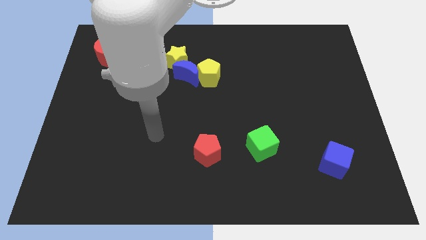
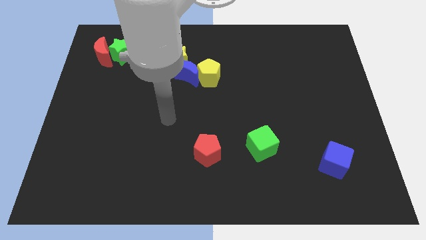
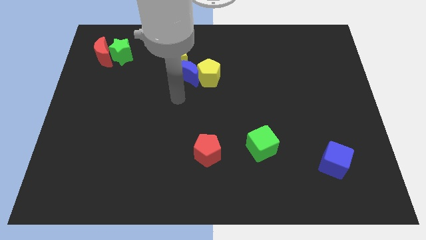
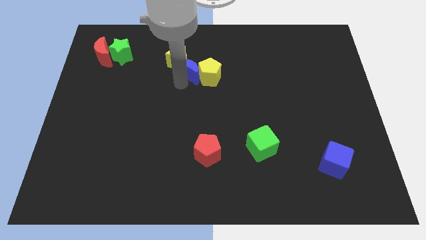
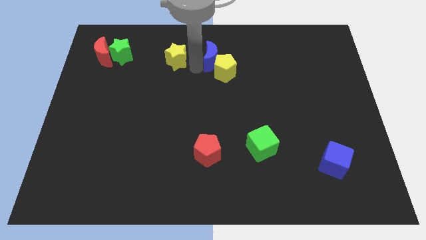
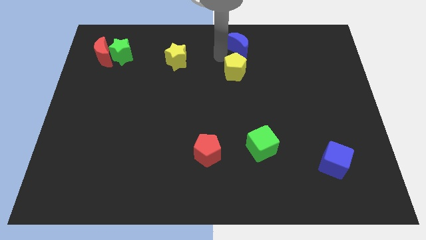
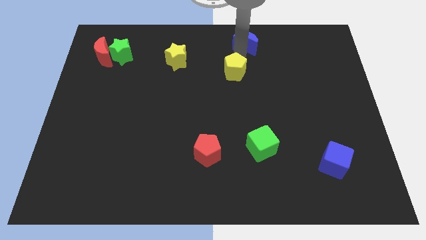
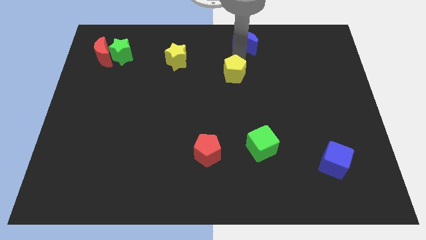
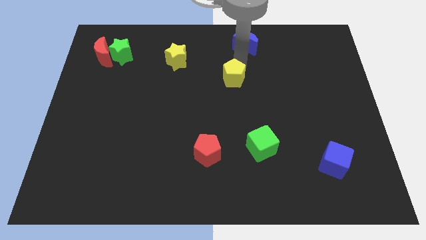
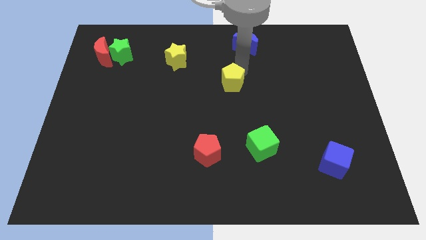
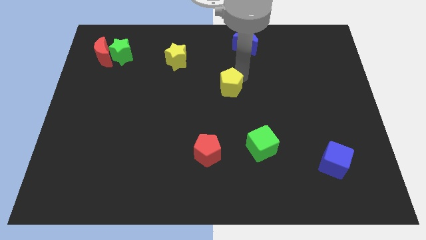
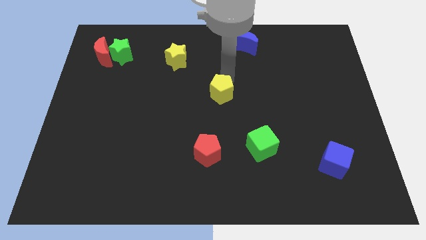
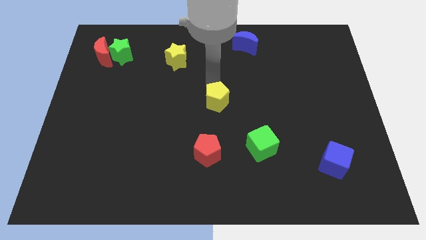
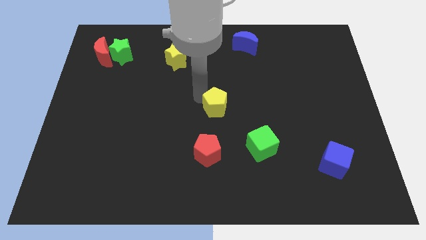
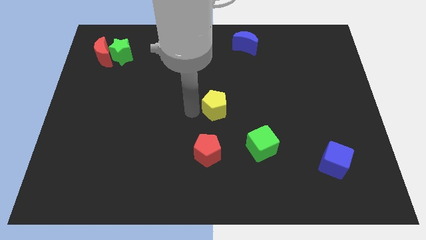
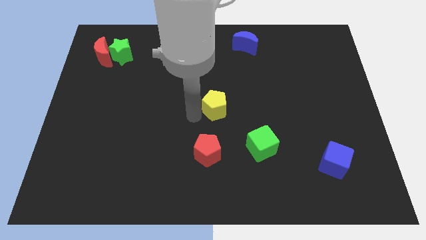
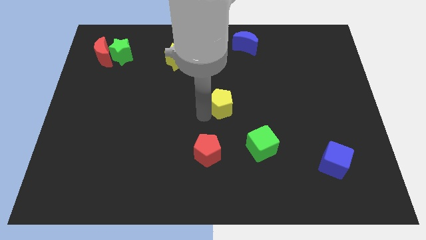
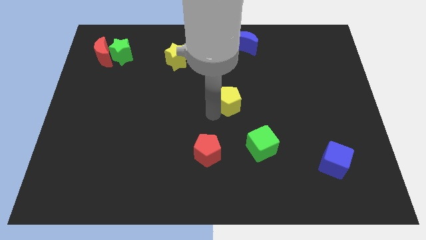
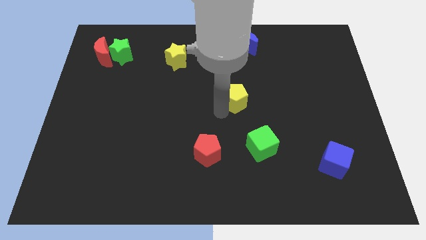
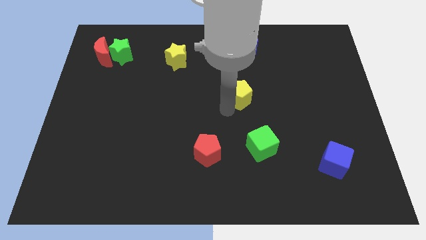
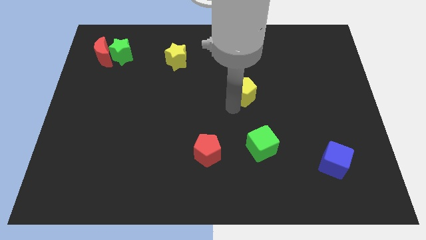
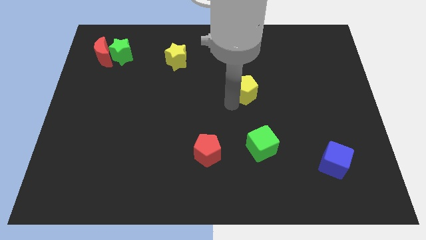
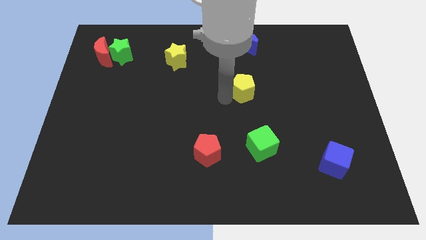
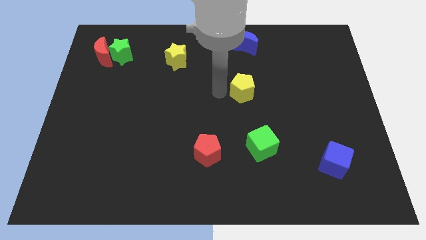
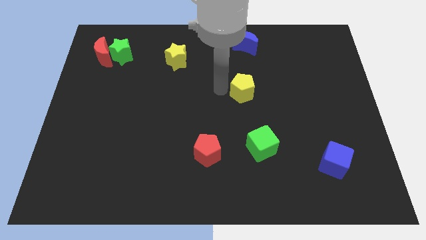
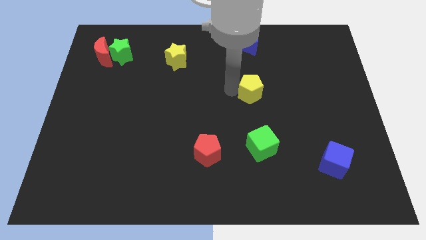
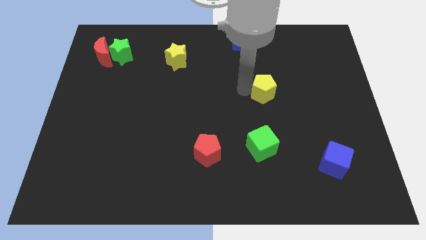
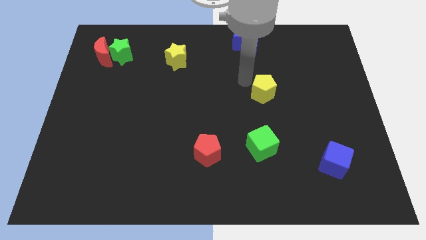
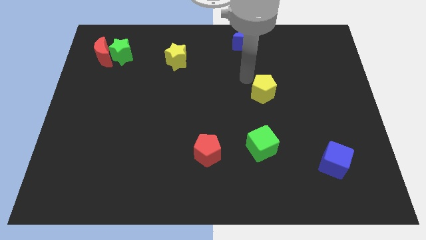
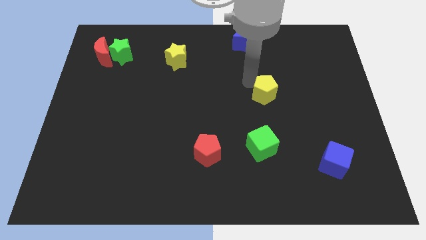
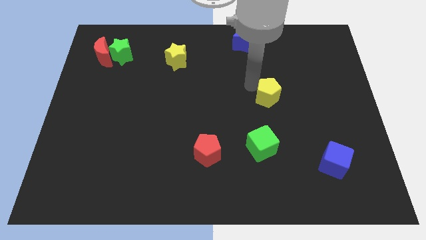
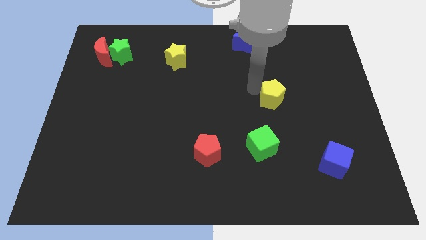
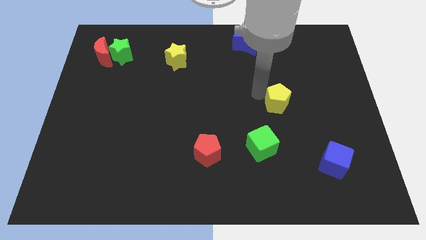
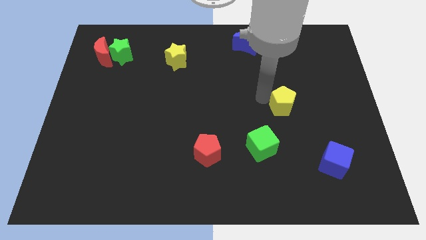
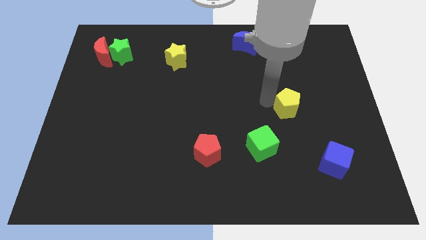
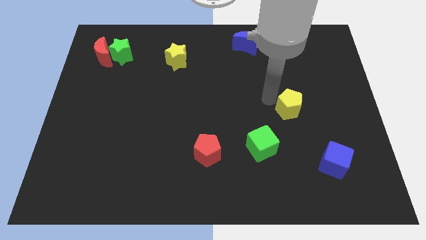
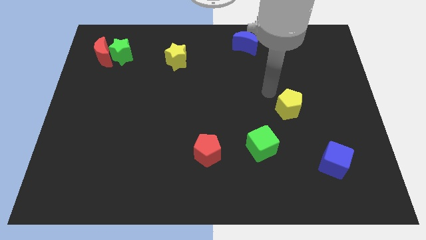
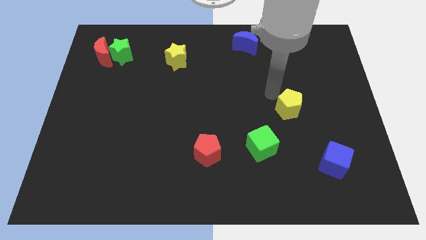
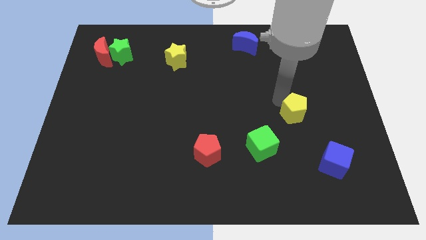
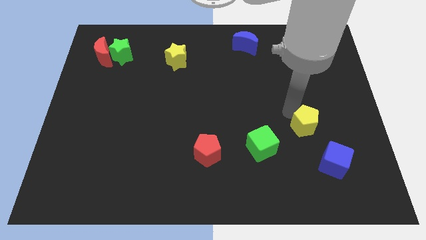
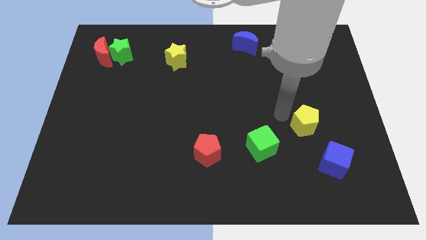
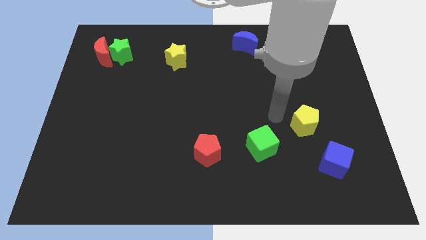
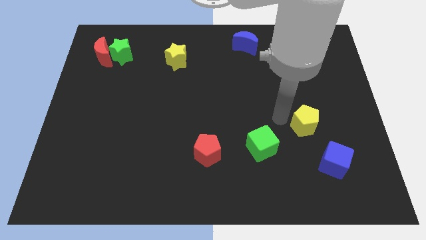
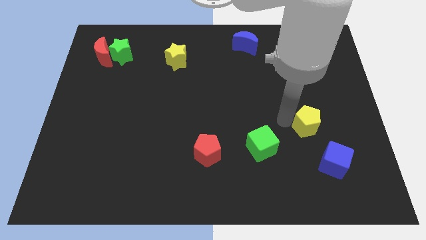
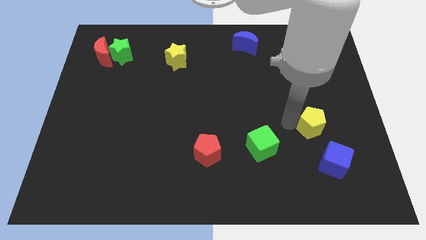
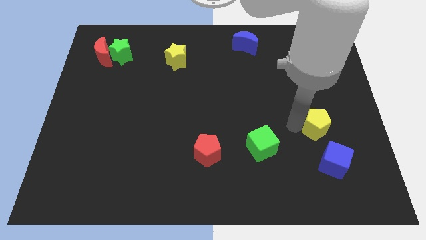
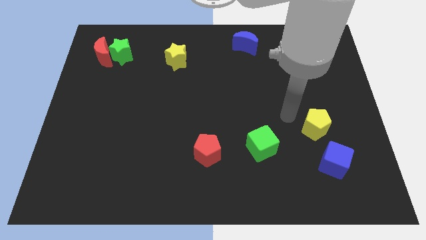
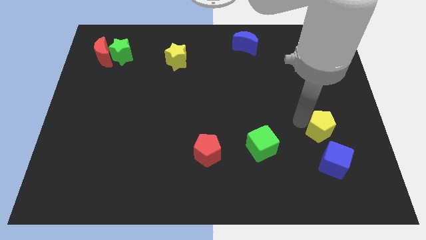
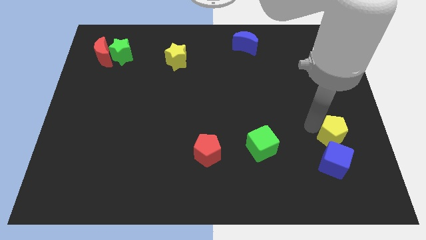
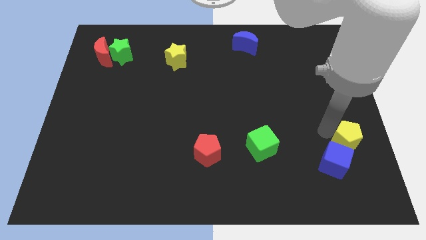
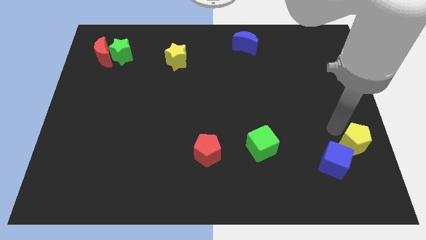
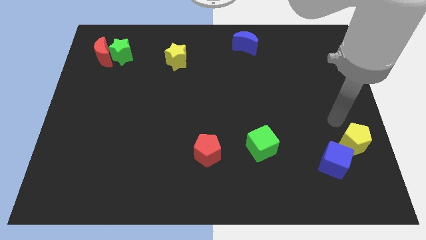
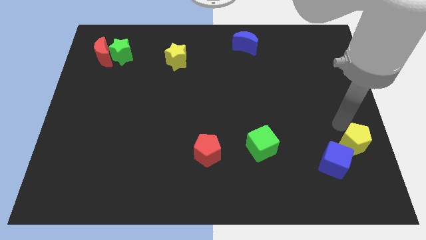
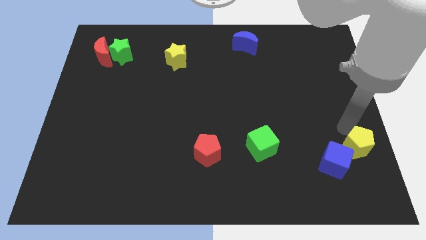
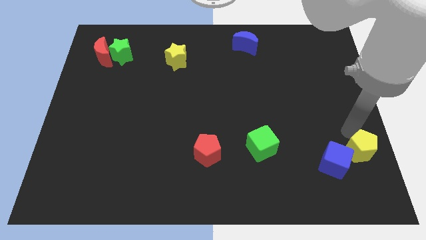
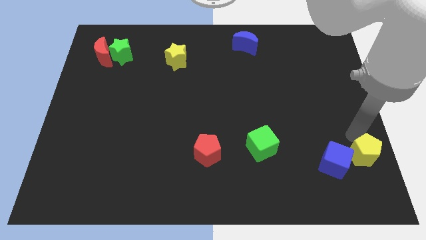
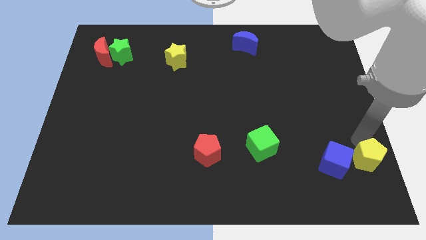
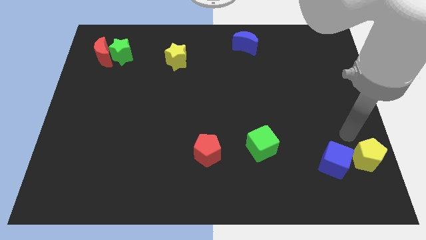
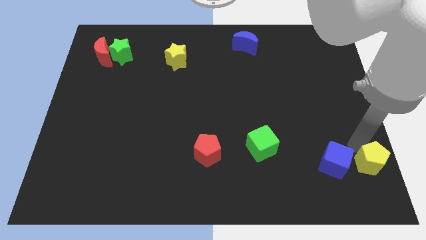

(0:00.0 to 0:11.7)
move the yellow pentagon to the bottom right
